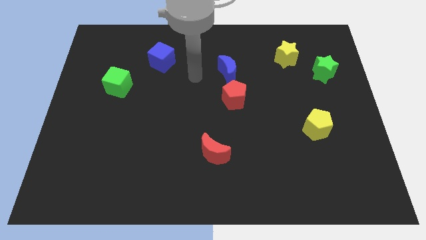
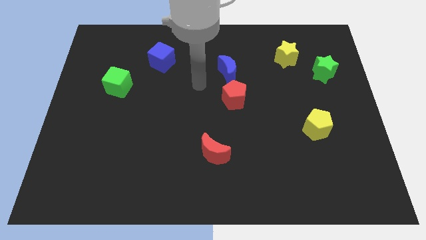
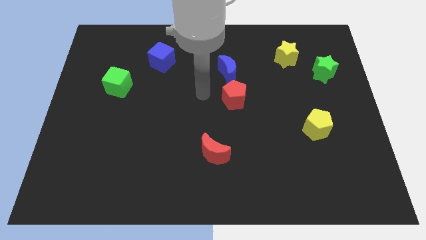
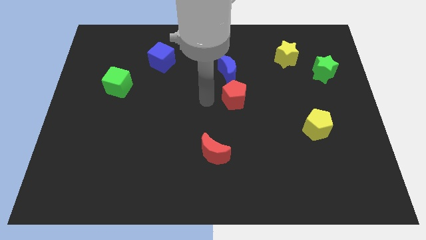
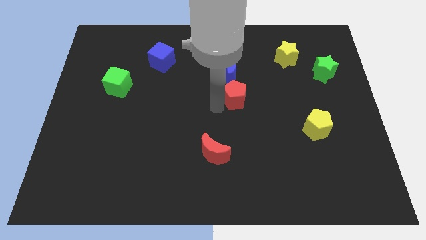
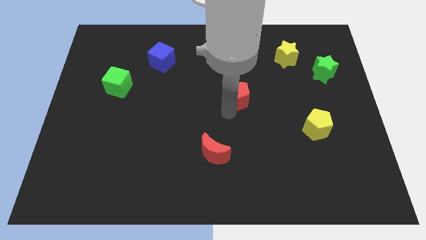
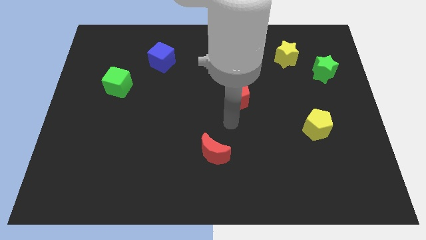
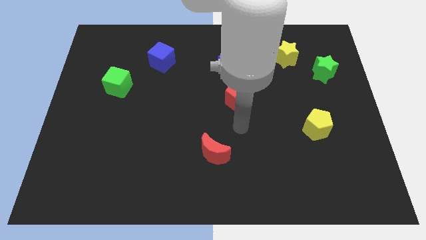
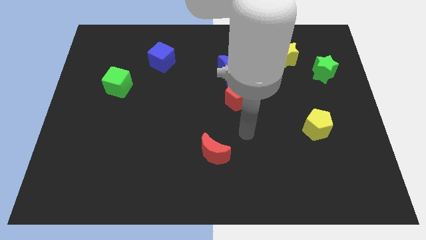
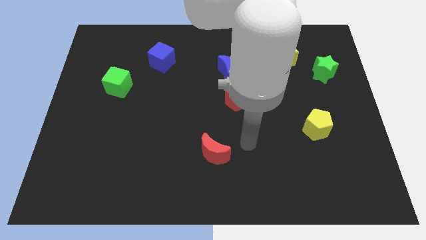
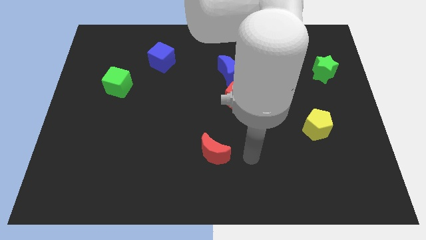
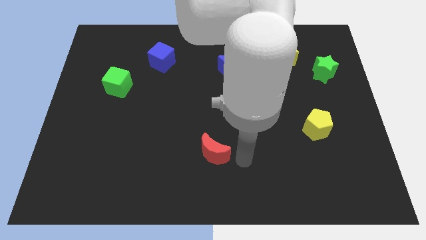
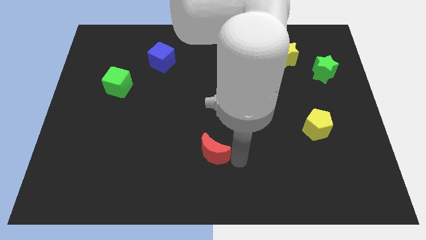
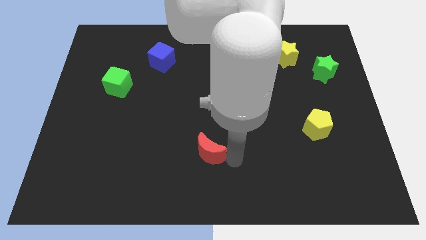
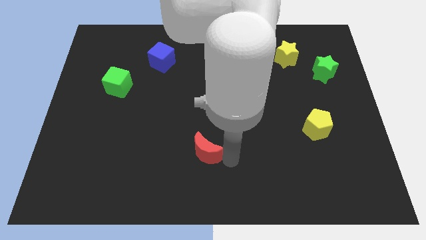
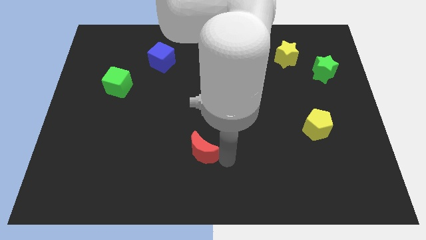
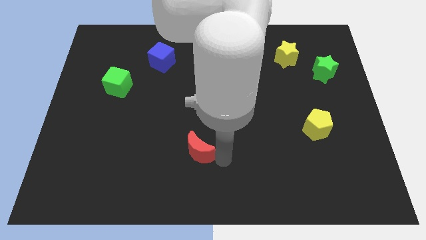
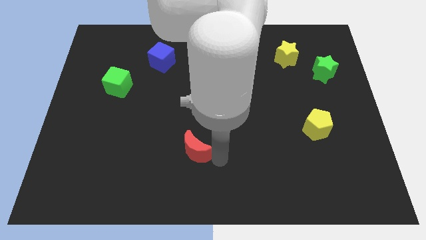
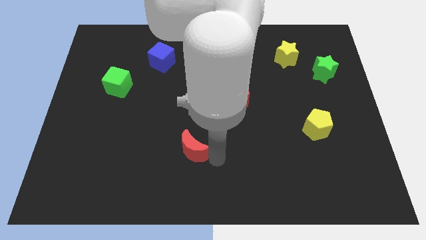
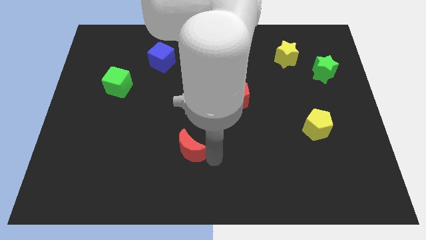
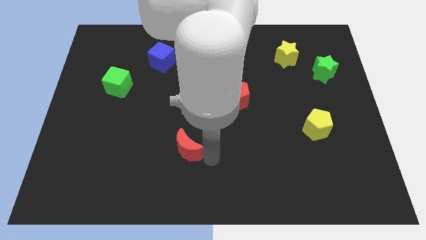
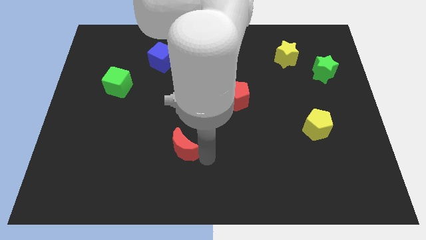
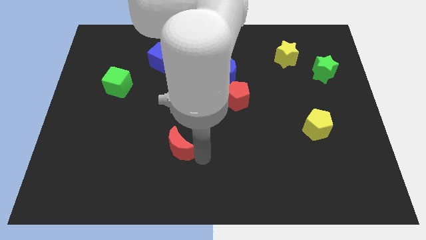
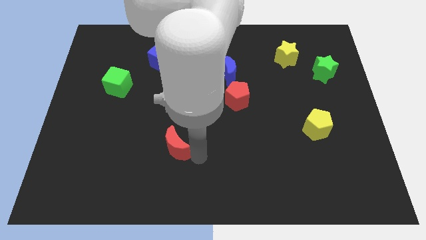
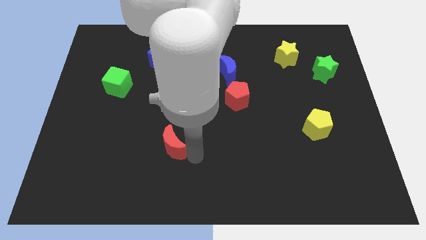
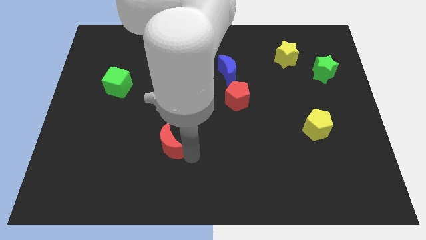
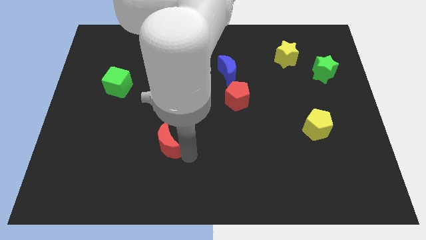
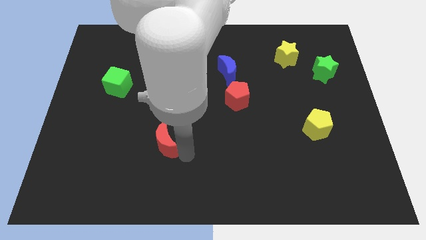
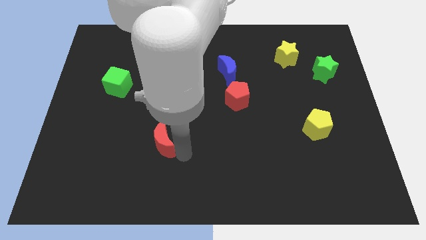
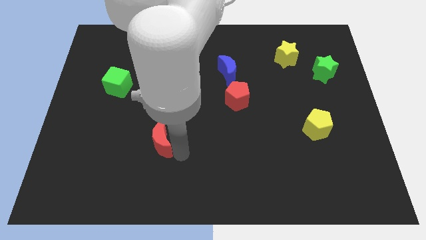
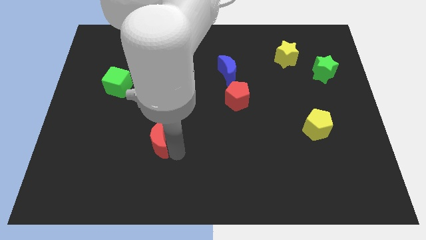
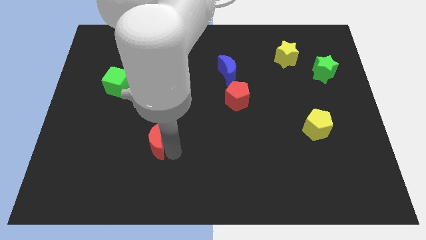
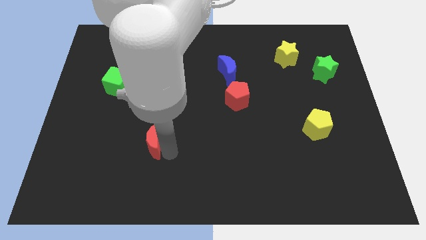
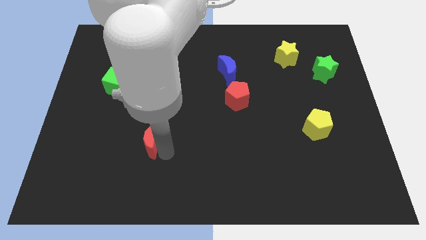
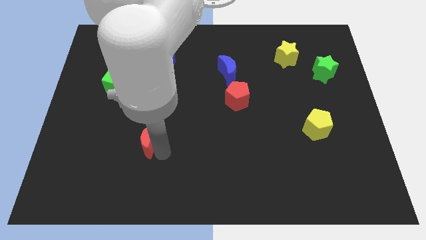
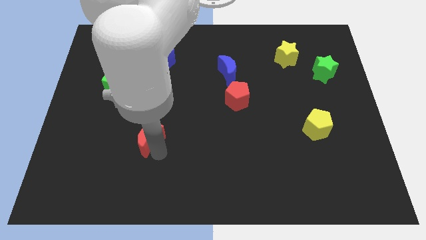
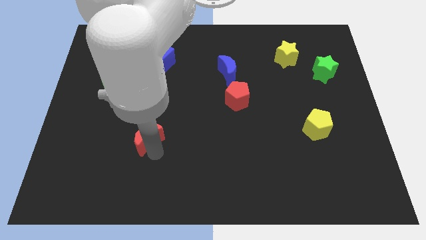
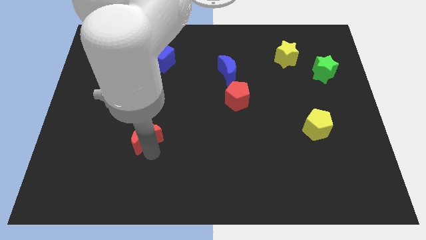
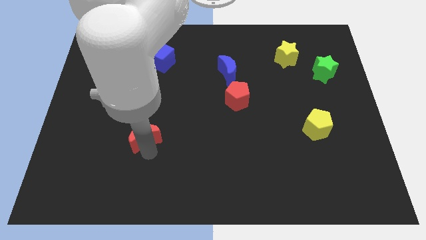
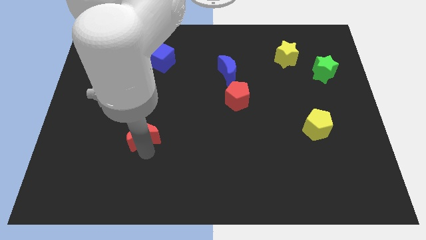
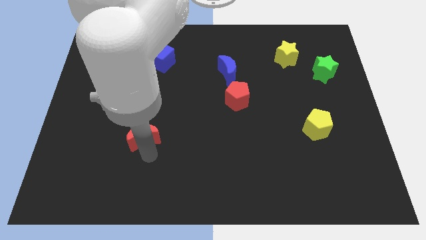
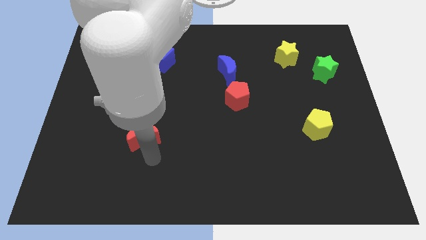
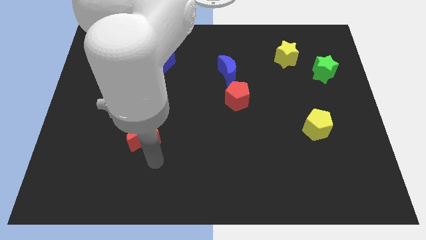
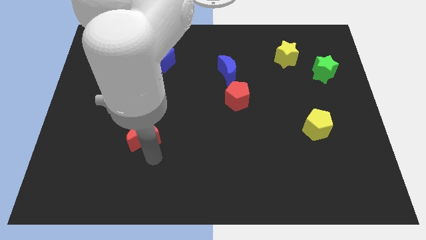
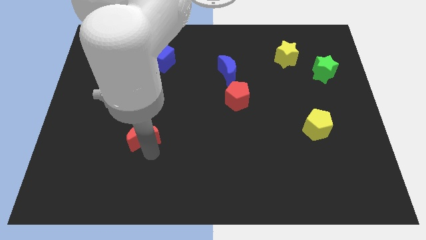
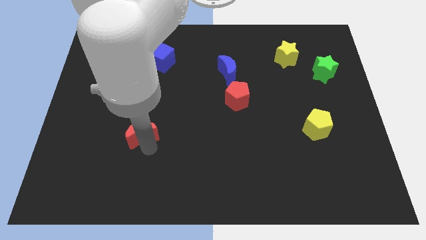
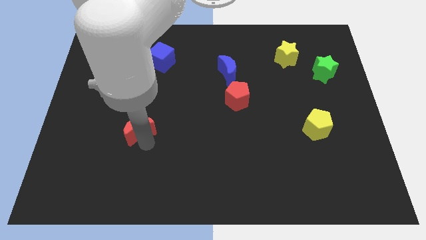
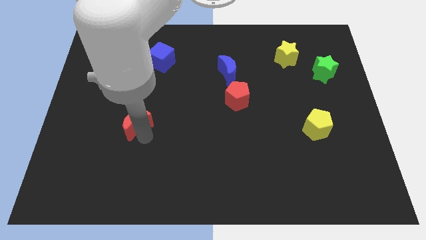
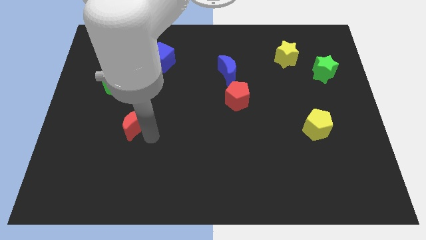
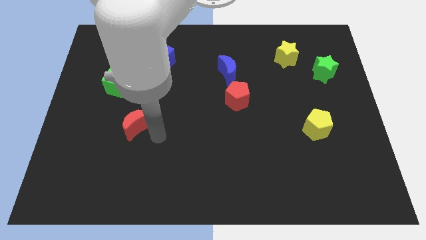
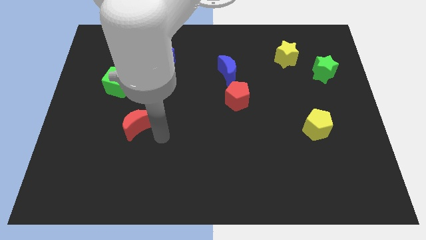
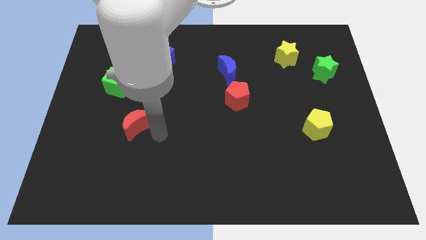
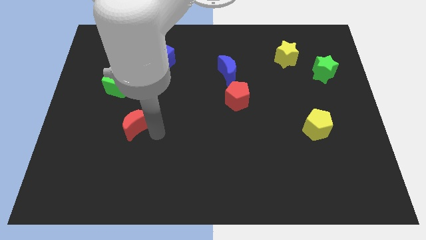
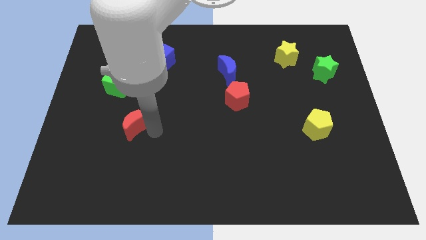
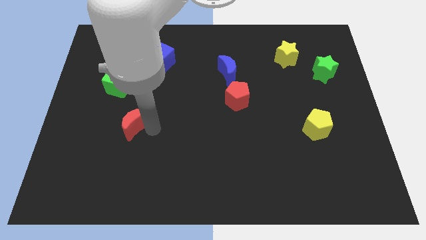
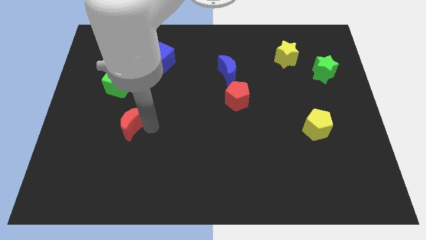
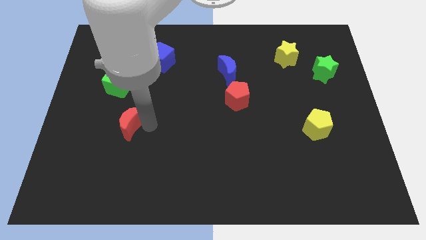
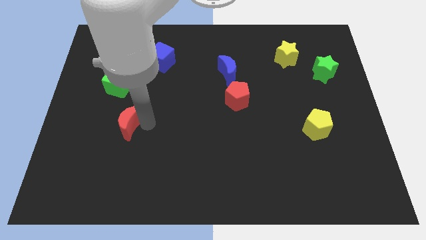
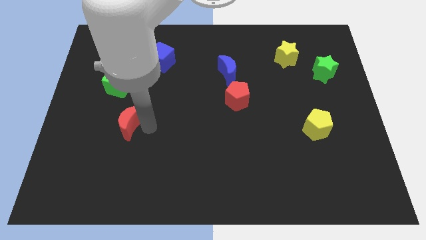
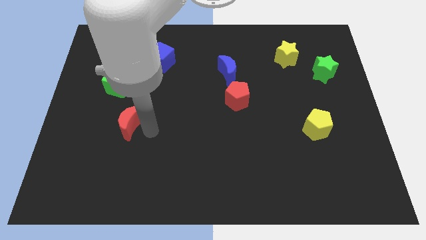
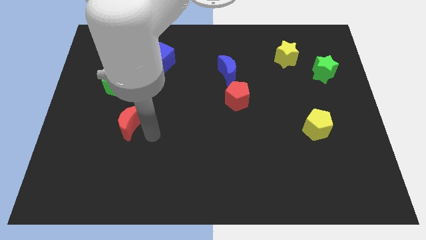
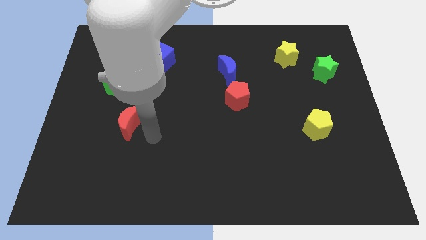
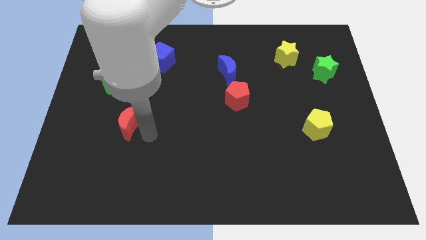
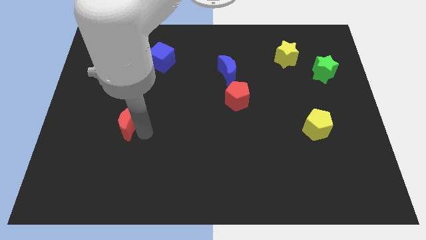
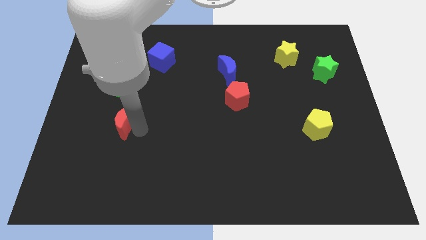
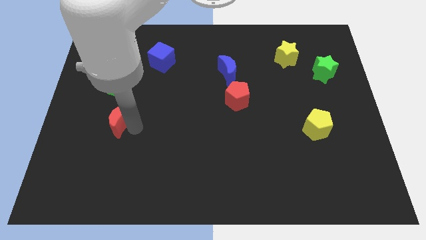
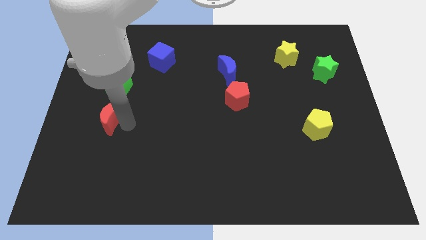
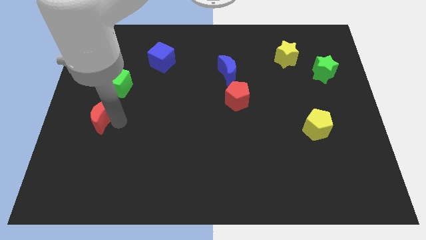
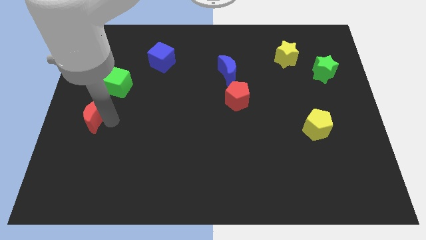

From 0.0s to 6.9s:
slide the red moon to the left side
